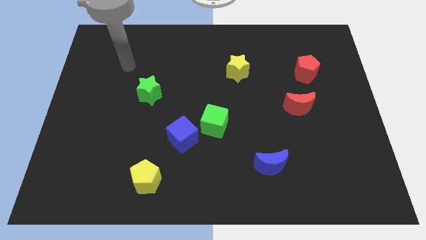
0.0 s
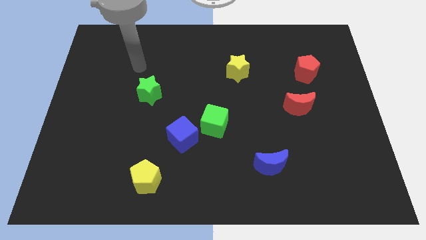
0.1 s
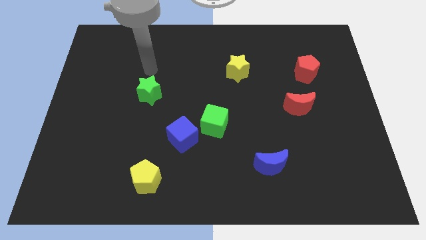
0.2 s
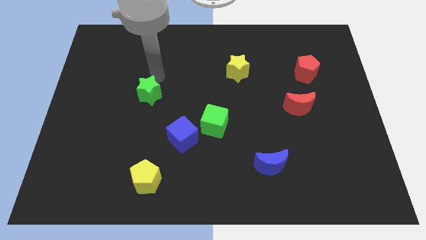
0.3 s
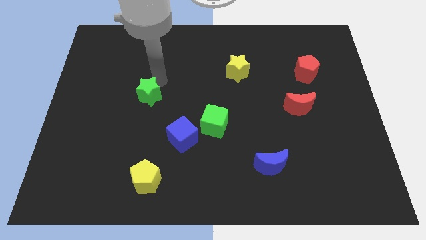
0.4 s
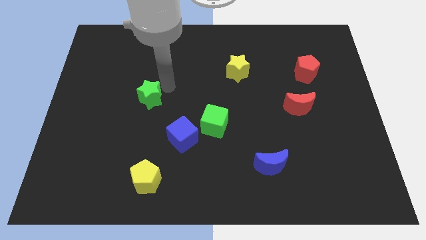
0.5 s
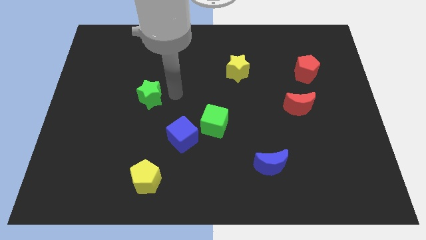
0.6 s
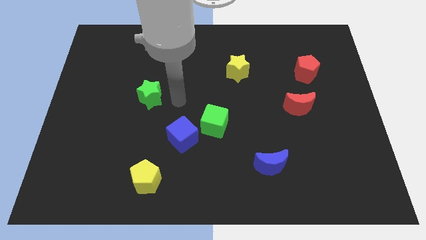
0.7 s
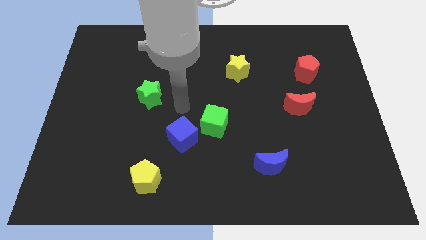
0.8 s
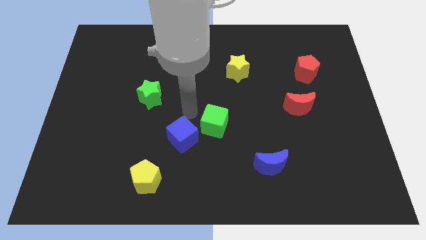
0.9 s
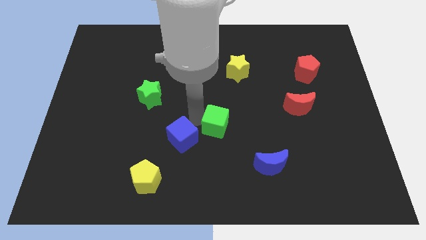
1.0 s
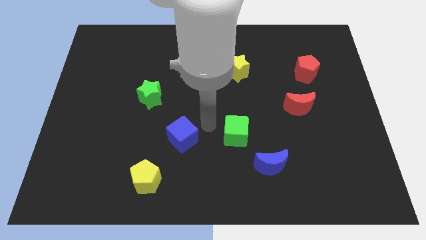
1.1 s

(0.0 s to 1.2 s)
move the blue cube away from the green cube

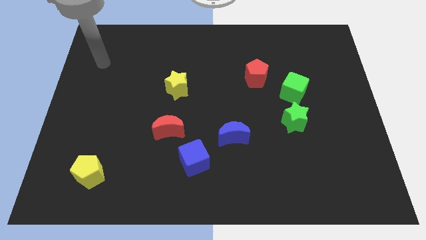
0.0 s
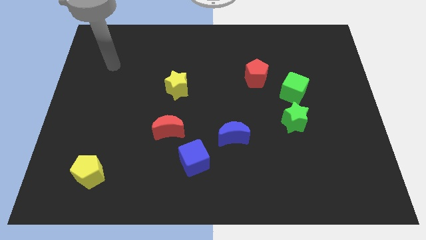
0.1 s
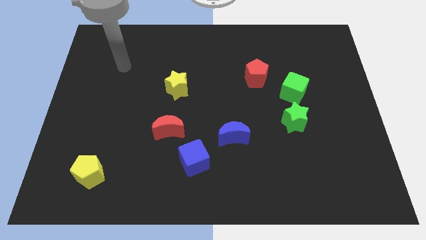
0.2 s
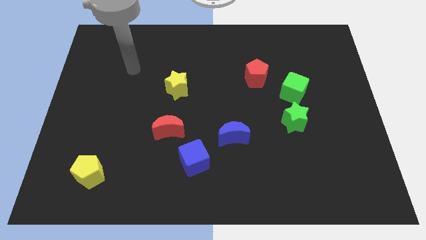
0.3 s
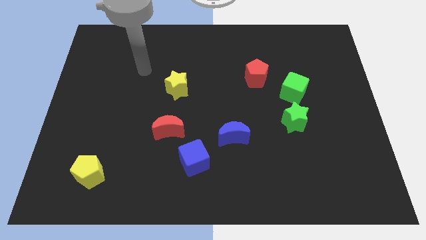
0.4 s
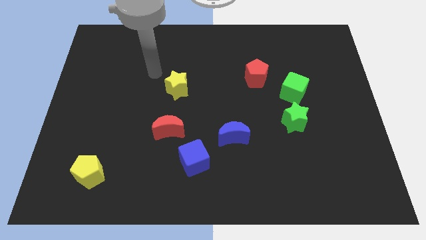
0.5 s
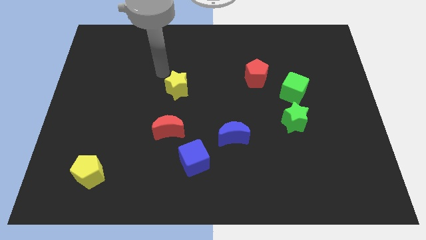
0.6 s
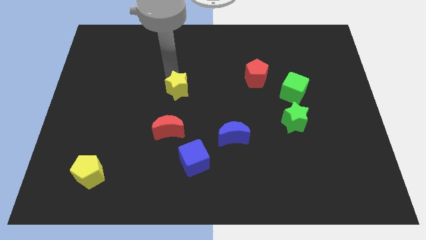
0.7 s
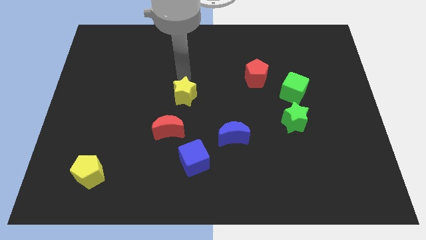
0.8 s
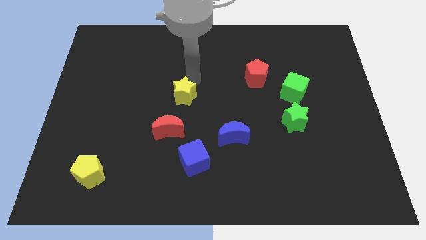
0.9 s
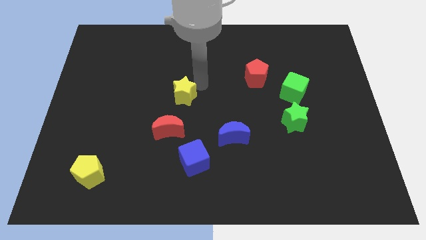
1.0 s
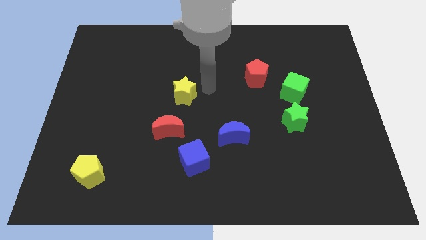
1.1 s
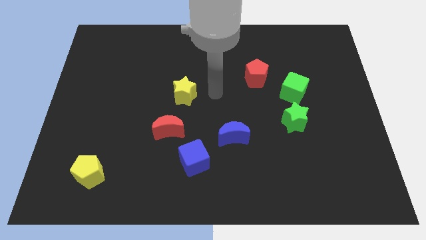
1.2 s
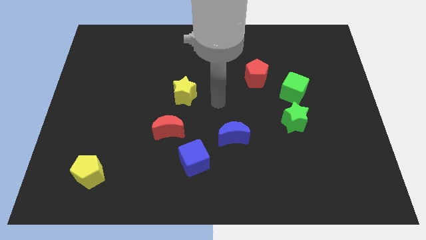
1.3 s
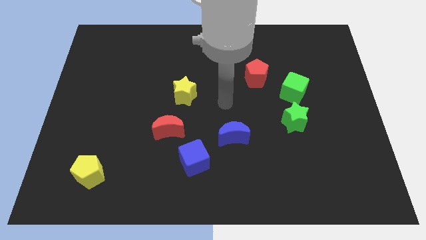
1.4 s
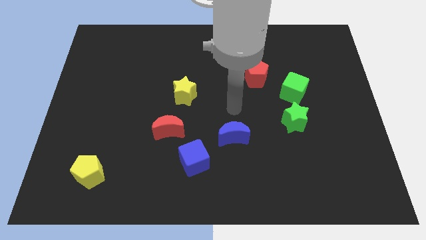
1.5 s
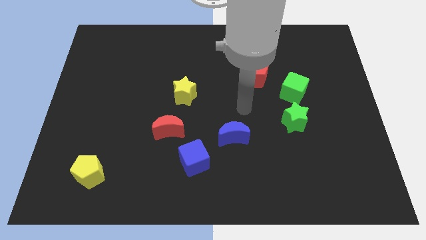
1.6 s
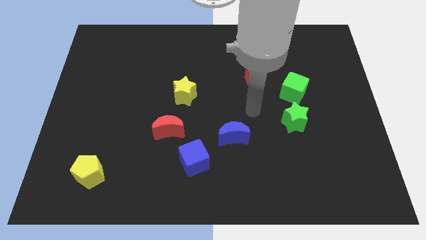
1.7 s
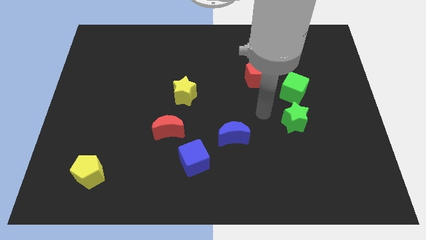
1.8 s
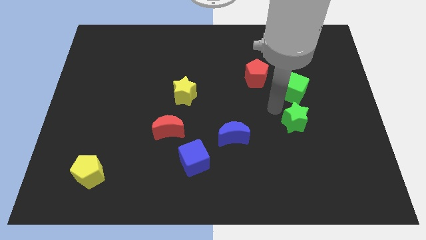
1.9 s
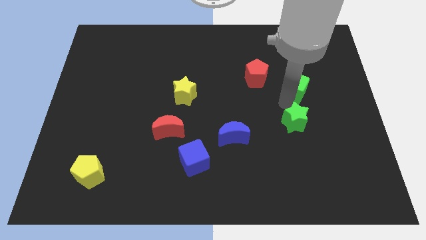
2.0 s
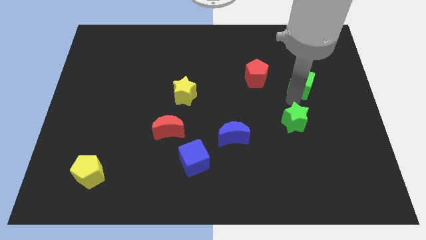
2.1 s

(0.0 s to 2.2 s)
separate the green star from the green cube

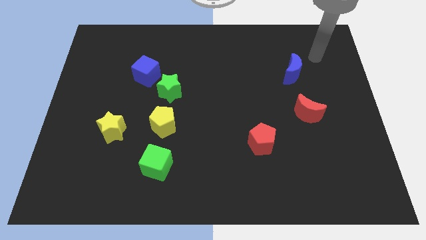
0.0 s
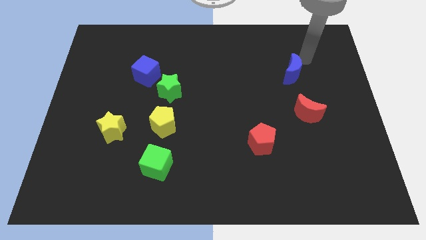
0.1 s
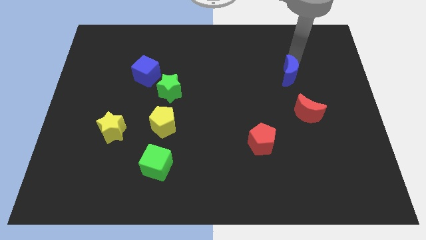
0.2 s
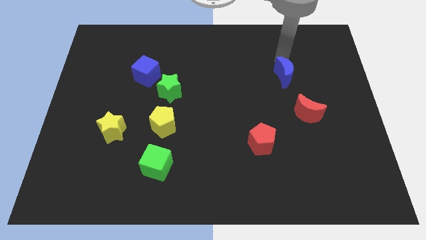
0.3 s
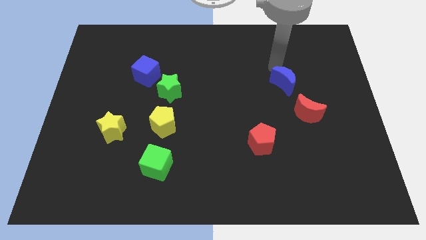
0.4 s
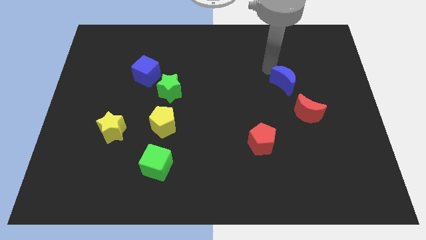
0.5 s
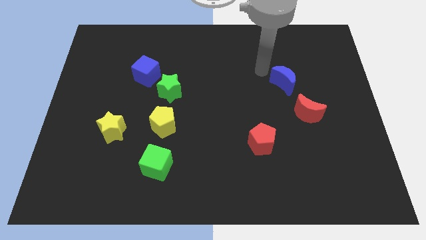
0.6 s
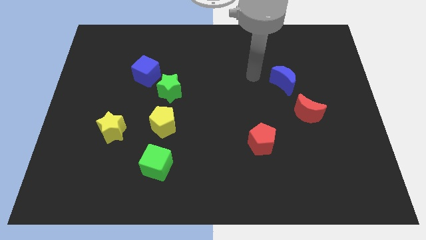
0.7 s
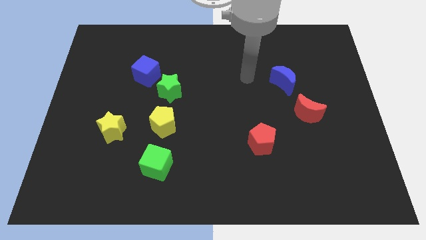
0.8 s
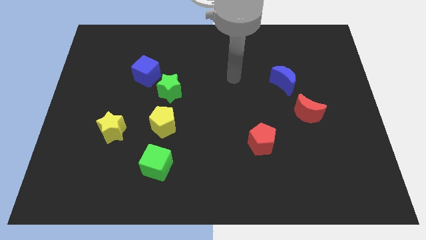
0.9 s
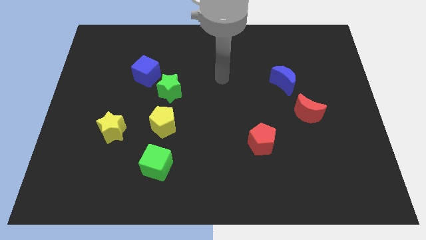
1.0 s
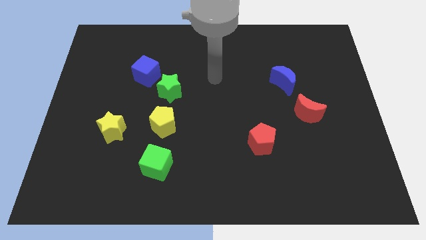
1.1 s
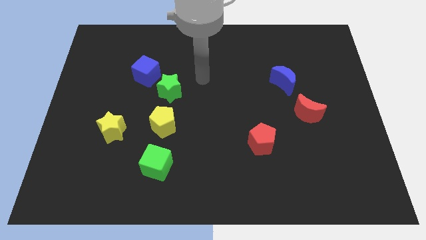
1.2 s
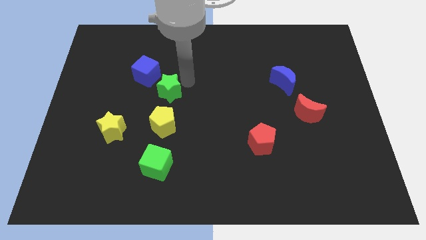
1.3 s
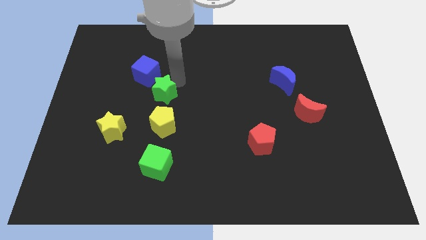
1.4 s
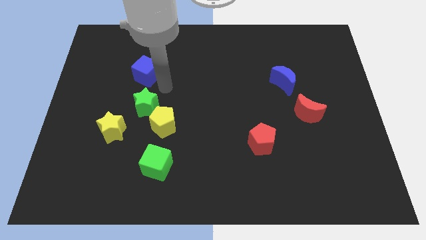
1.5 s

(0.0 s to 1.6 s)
pull the blue cube apart from the green star

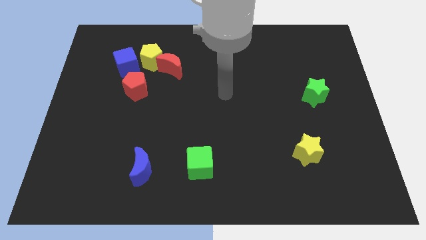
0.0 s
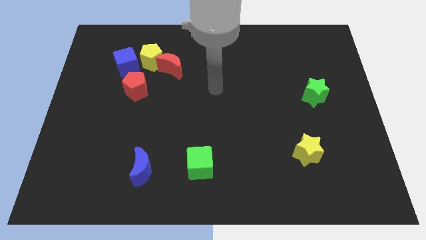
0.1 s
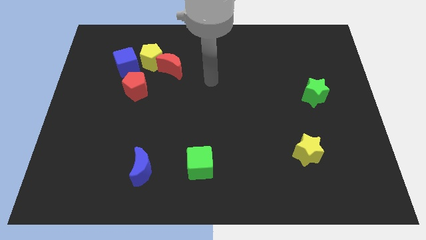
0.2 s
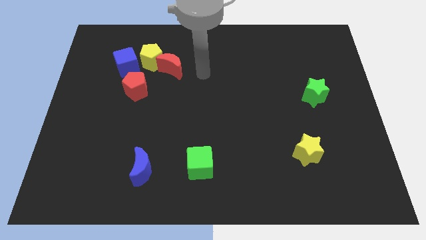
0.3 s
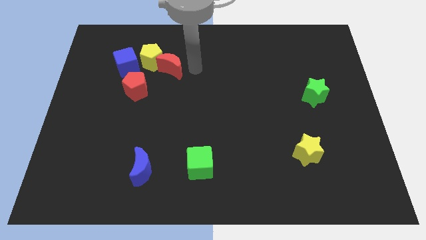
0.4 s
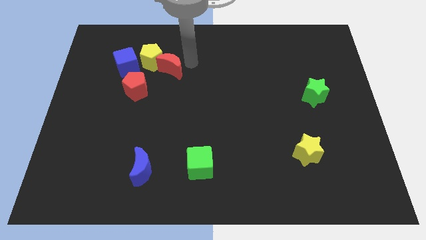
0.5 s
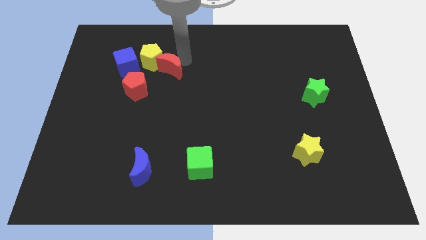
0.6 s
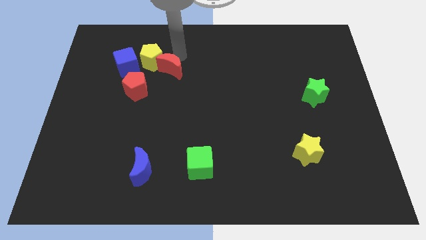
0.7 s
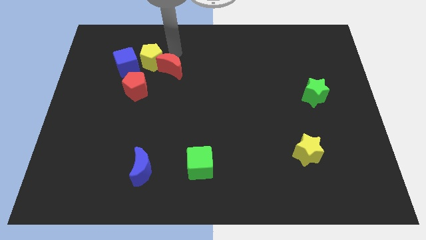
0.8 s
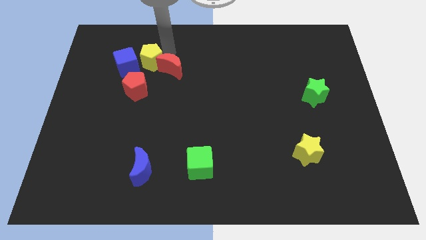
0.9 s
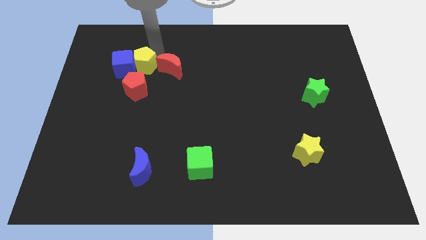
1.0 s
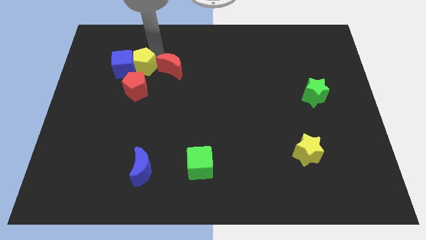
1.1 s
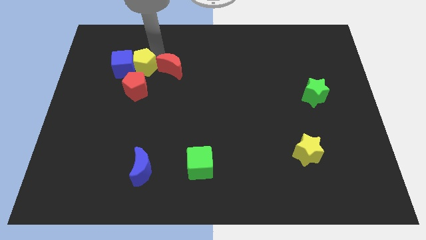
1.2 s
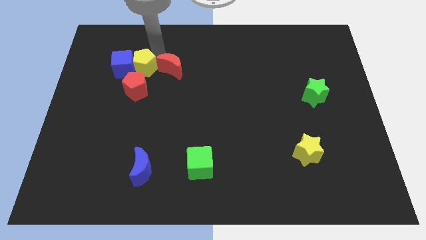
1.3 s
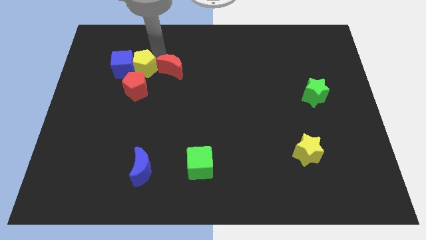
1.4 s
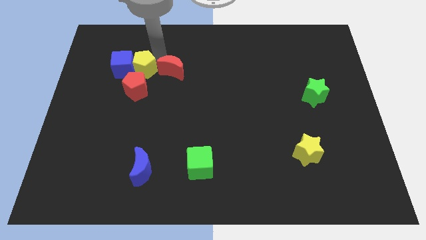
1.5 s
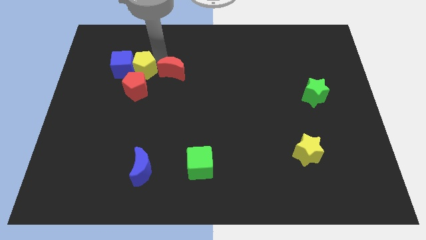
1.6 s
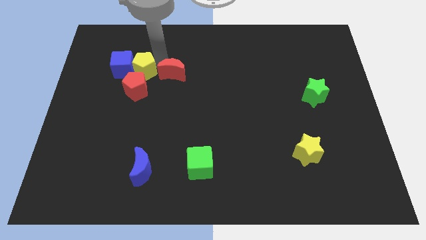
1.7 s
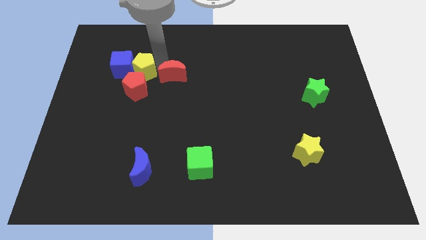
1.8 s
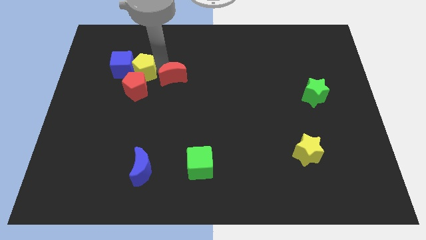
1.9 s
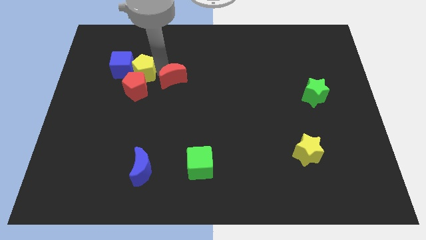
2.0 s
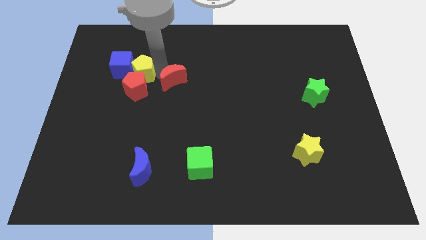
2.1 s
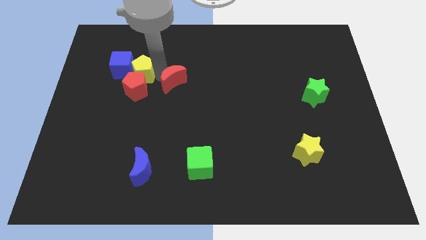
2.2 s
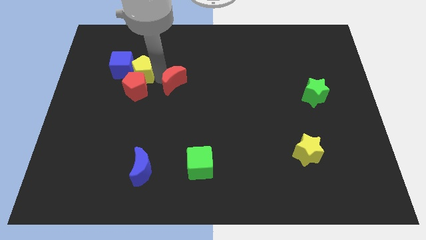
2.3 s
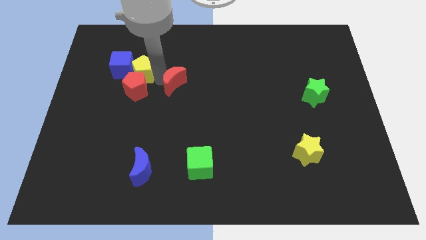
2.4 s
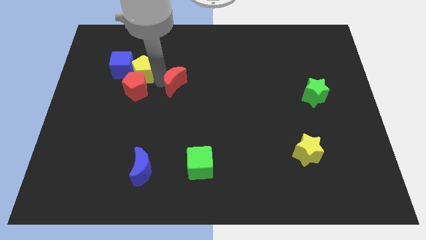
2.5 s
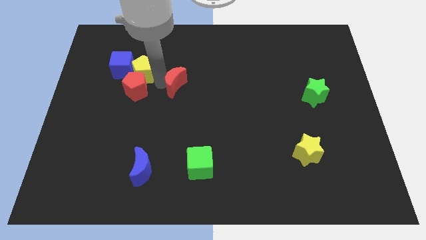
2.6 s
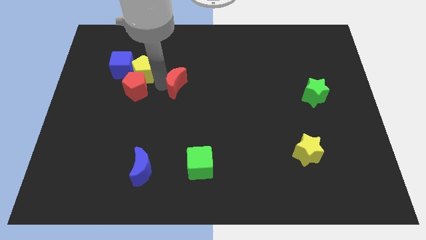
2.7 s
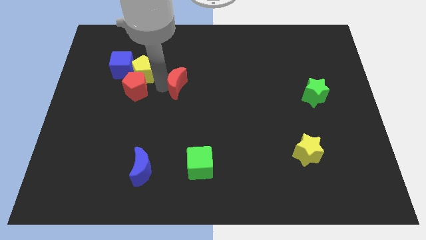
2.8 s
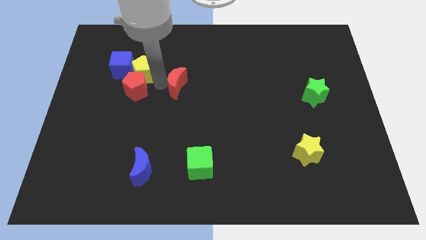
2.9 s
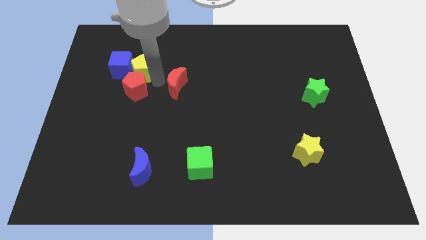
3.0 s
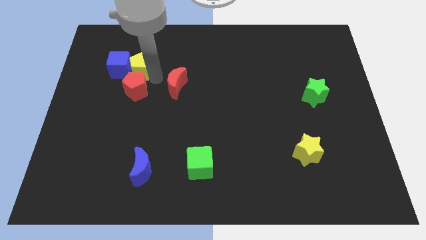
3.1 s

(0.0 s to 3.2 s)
move the red moon away from the yellow pentagon

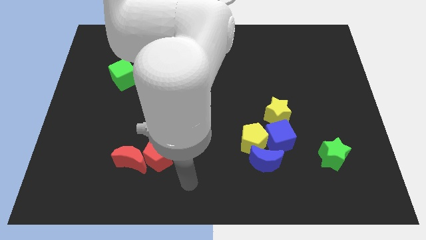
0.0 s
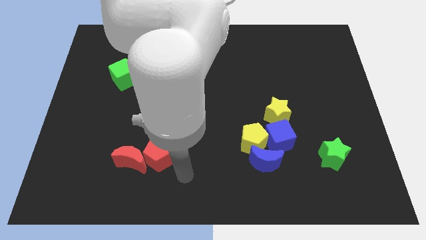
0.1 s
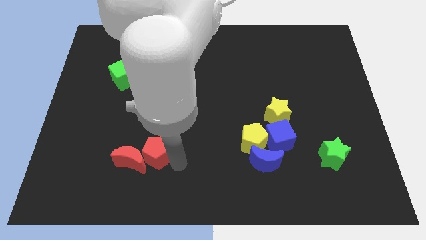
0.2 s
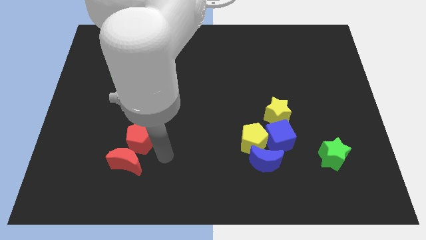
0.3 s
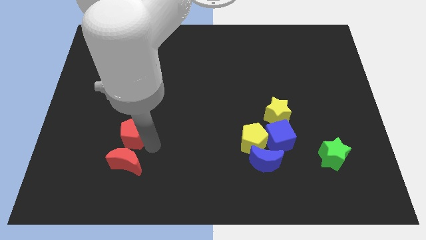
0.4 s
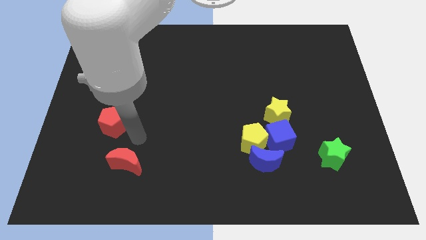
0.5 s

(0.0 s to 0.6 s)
pull the red moon apart from the red pentagon

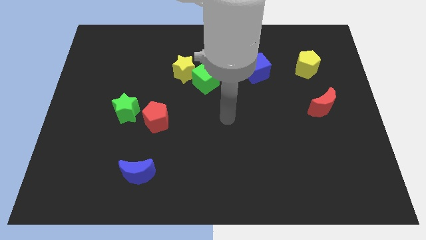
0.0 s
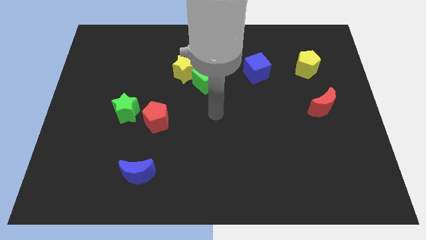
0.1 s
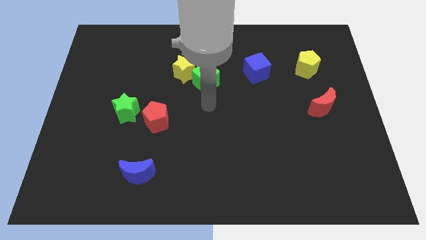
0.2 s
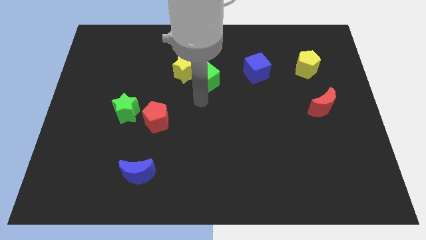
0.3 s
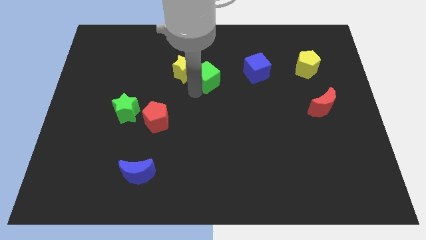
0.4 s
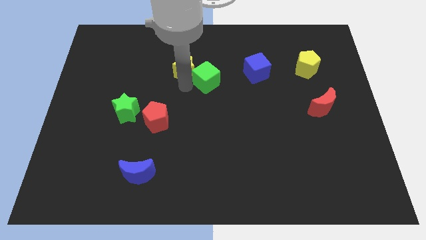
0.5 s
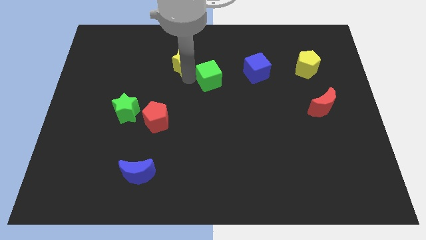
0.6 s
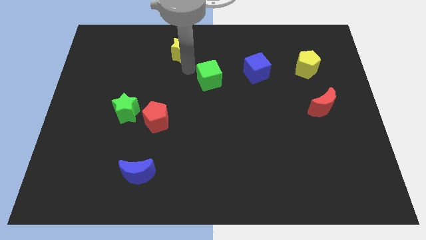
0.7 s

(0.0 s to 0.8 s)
separate the green cube from the yellow star
